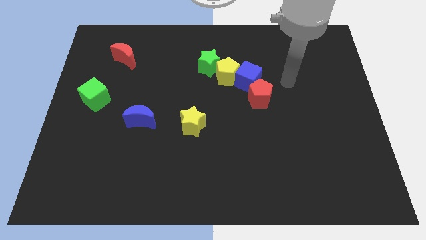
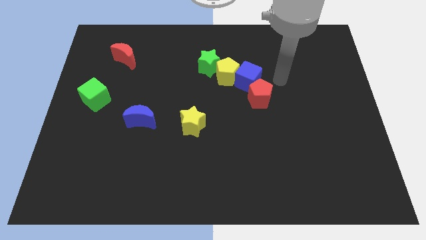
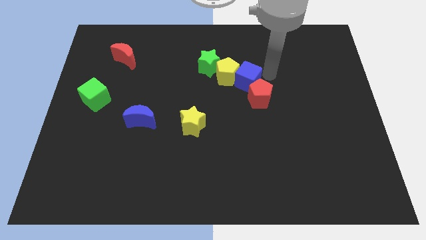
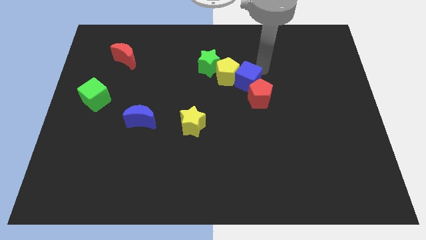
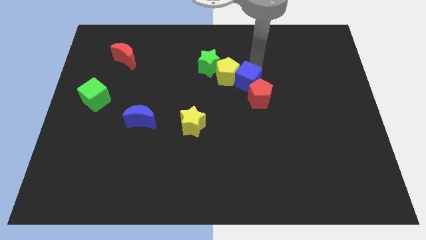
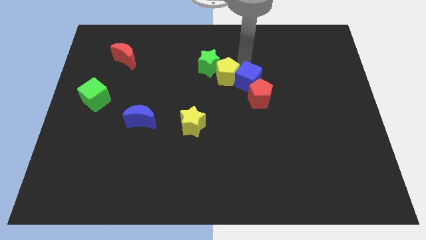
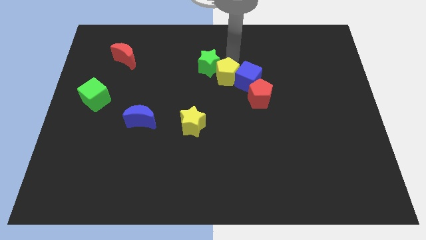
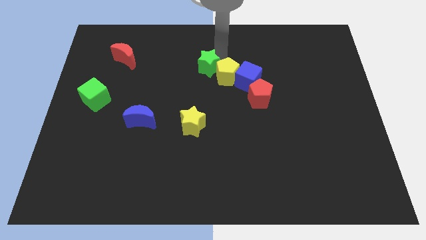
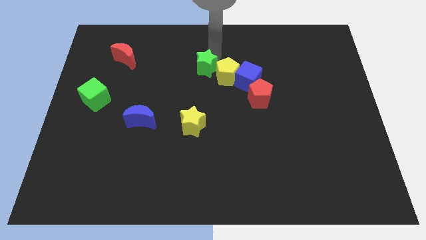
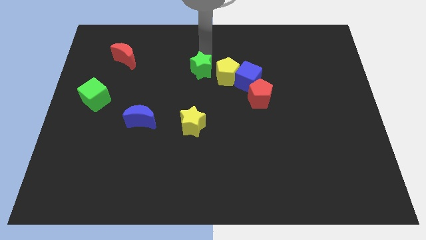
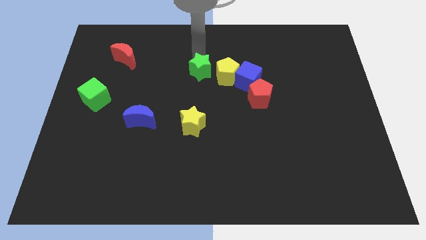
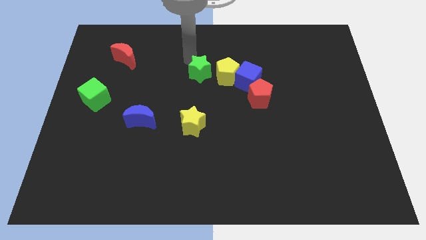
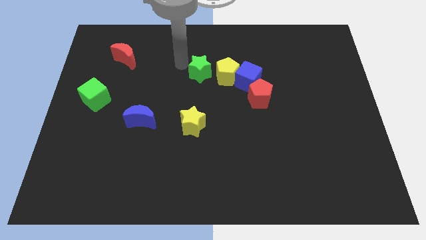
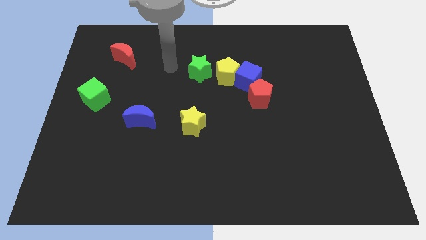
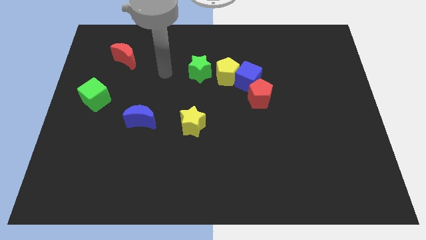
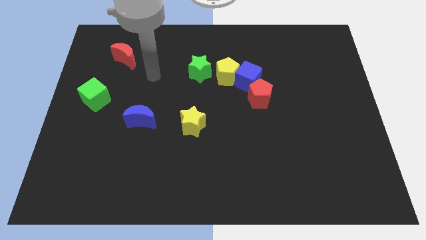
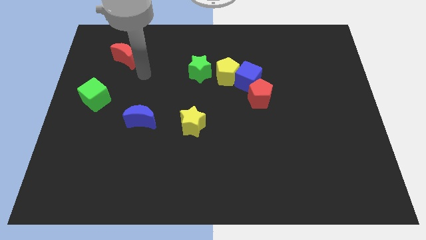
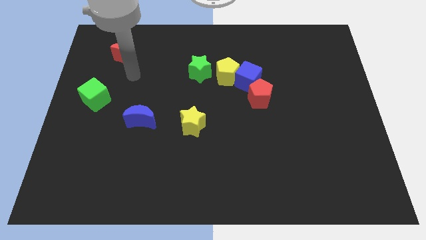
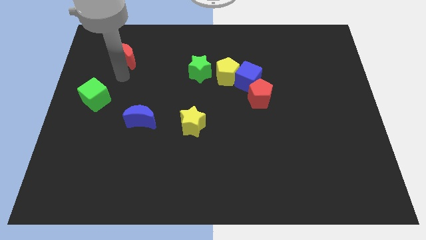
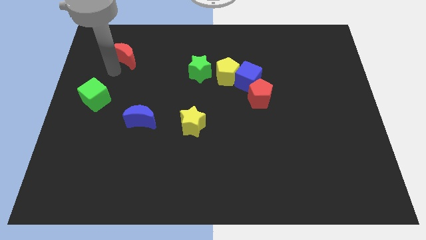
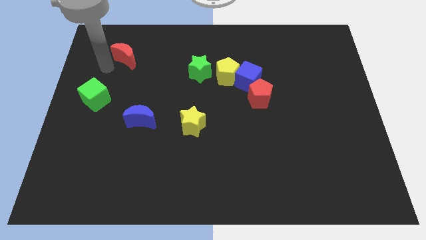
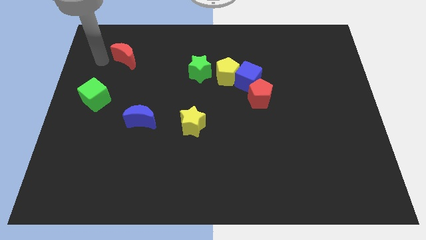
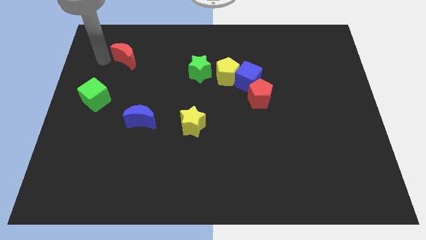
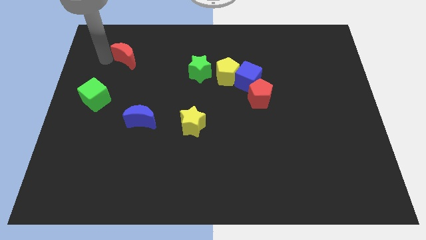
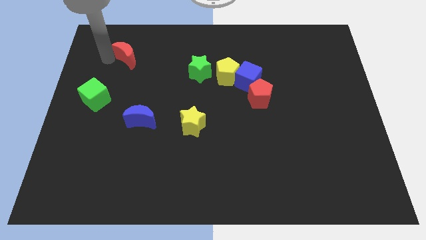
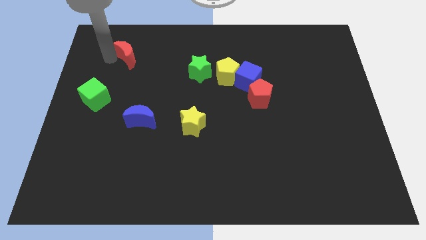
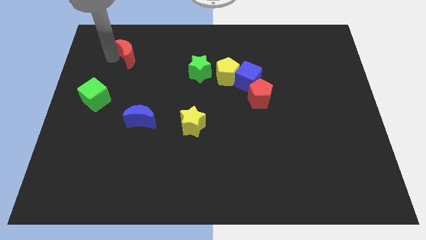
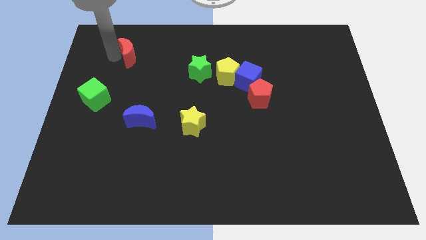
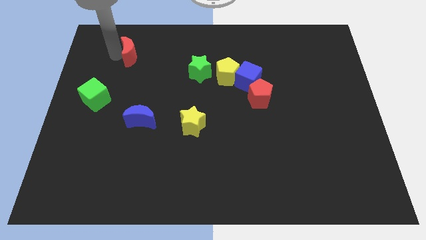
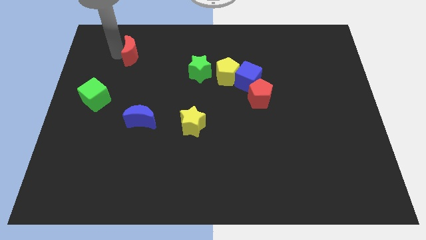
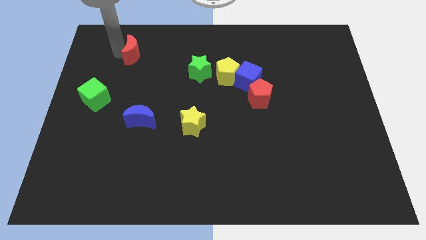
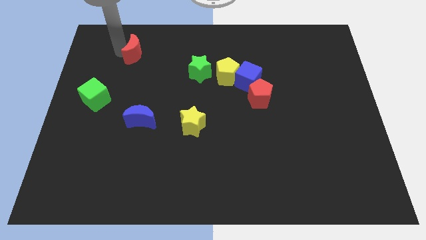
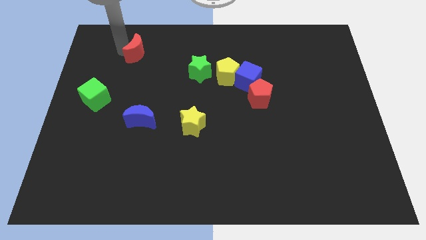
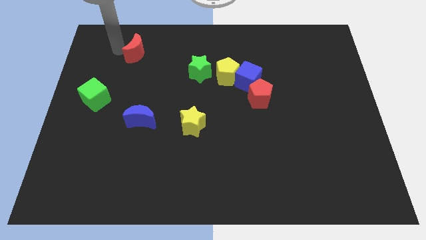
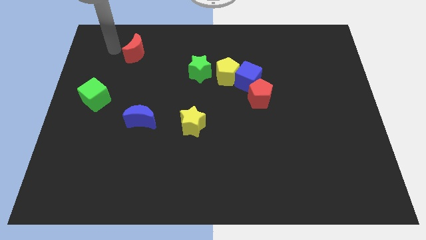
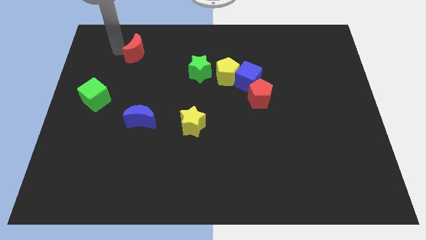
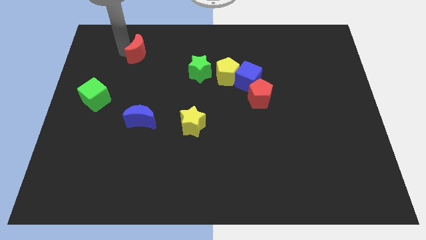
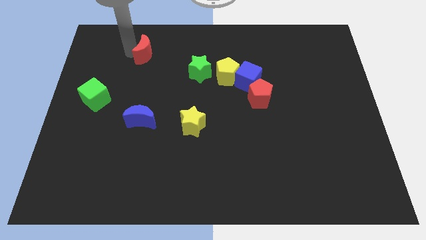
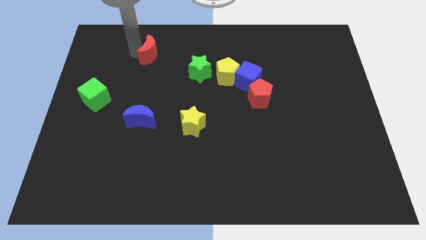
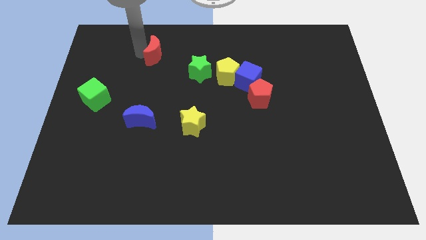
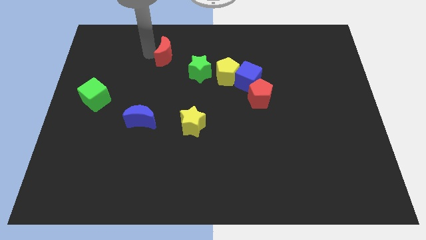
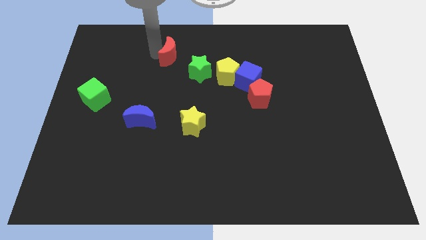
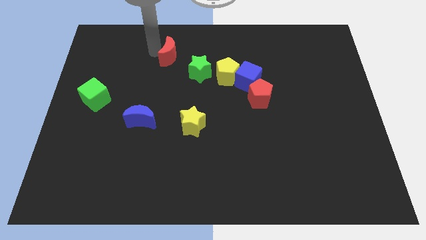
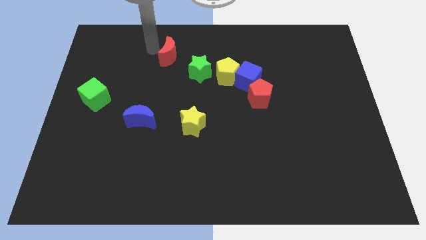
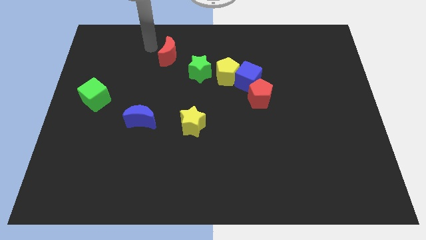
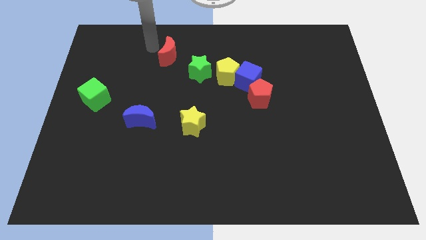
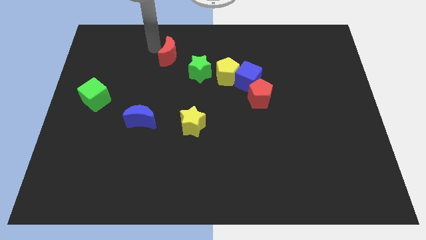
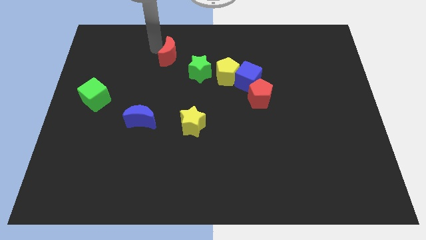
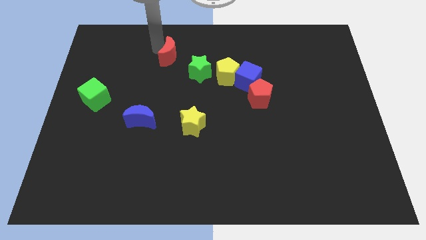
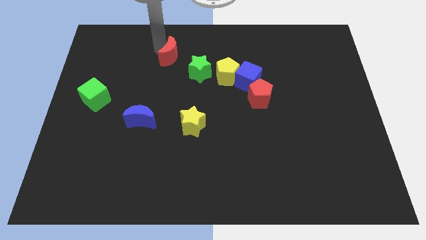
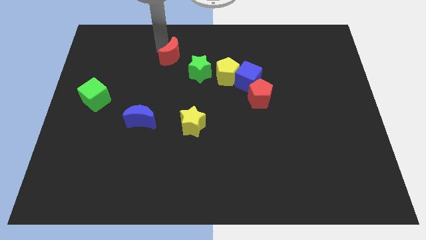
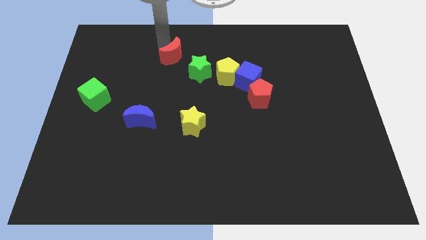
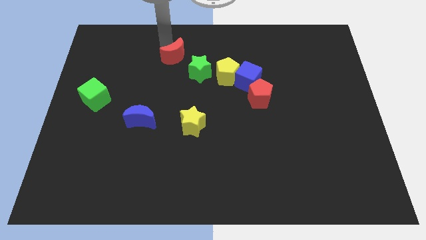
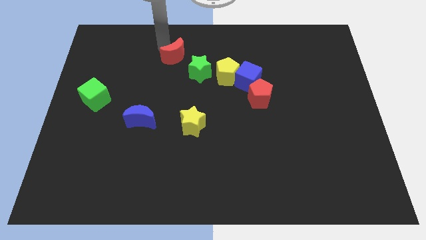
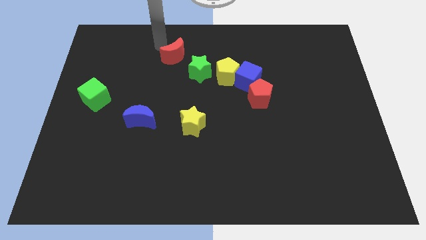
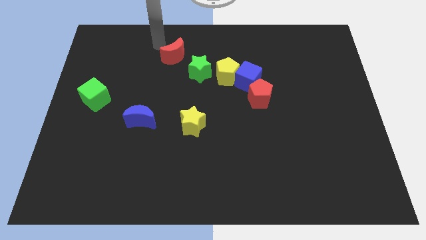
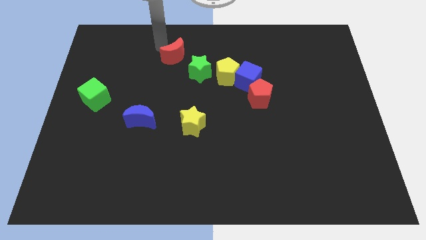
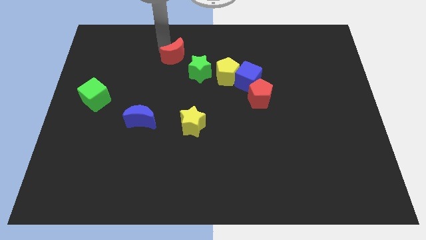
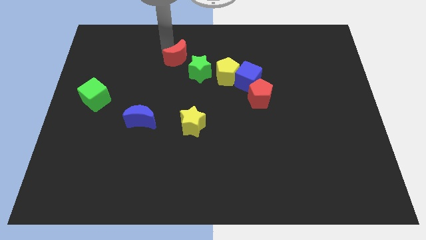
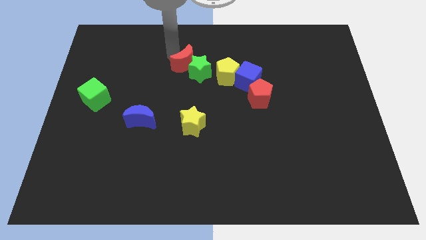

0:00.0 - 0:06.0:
slide the red moon next to the green star

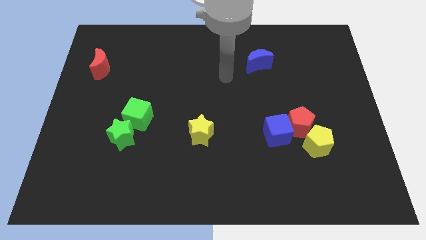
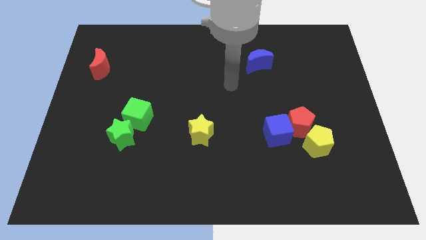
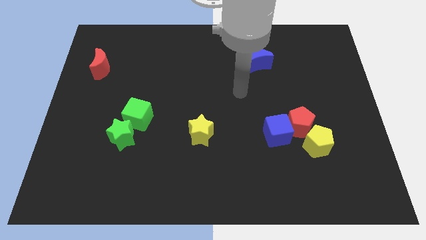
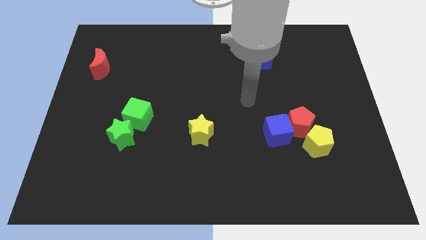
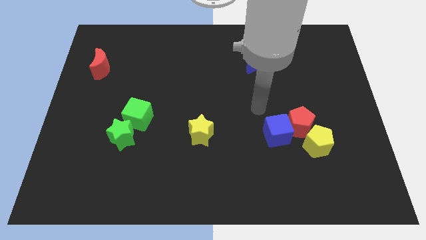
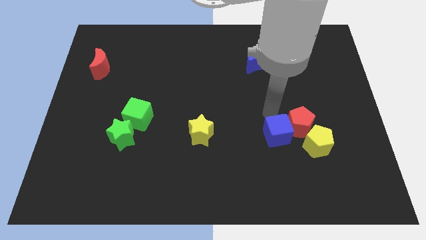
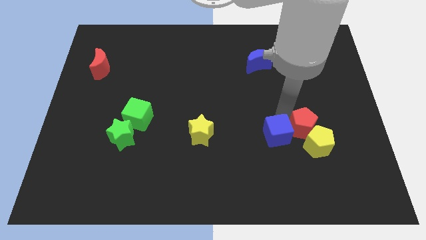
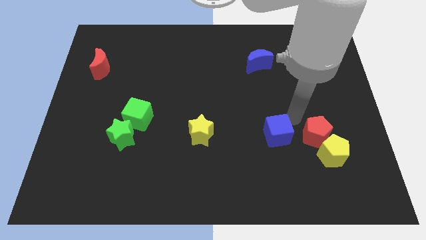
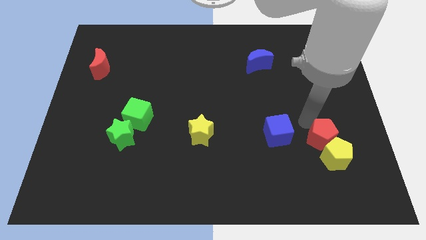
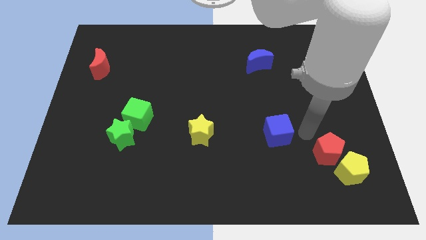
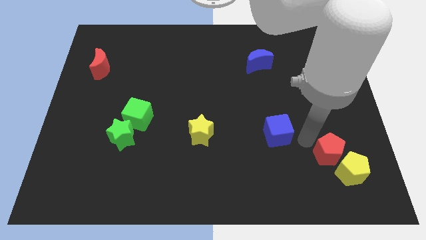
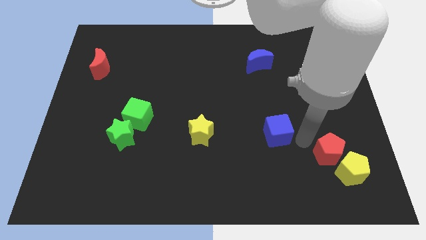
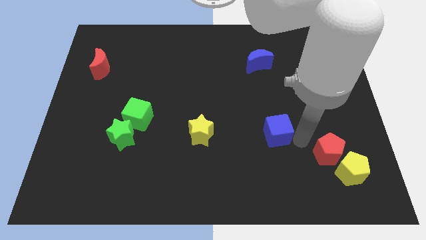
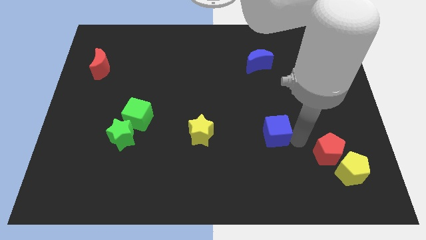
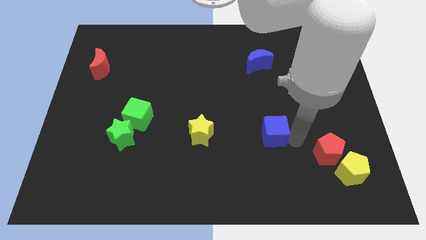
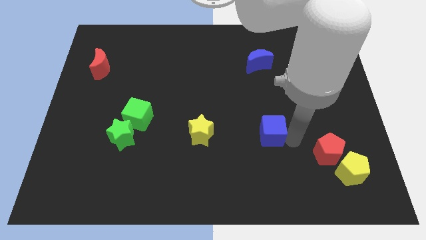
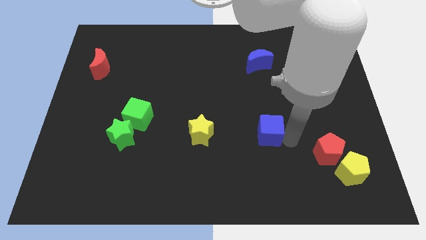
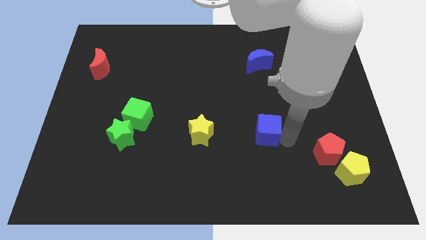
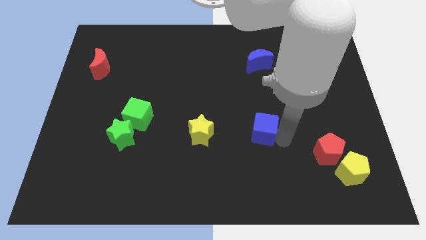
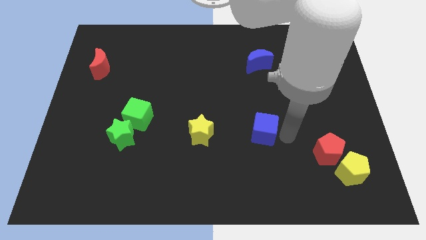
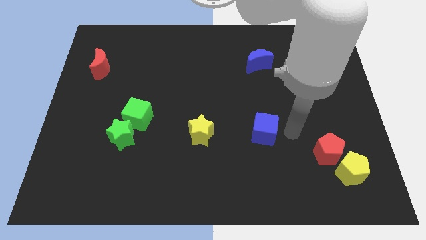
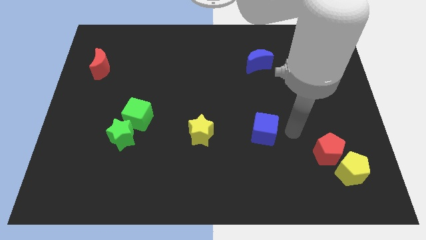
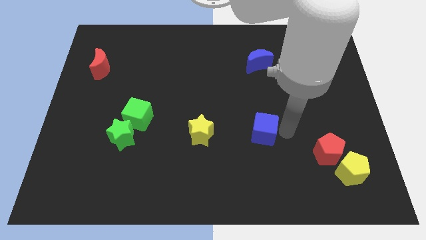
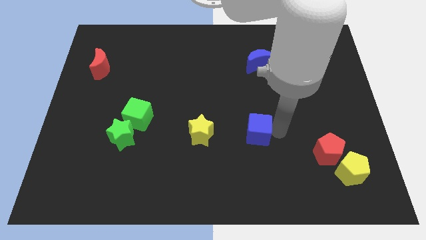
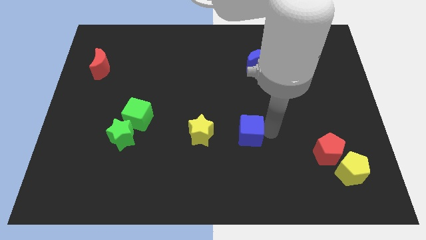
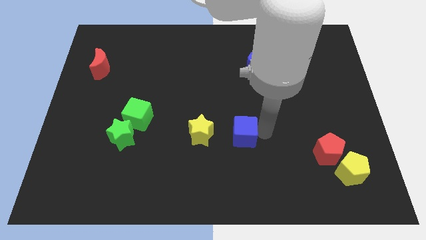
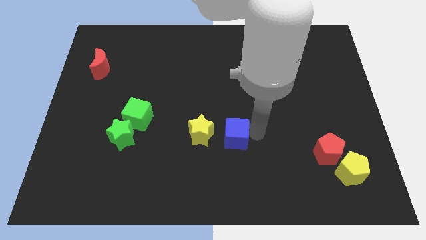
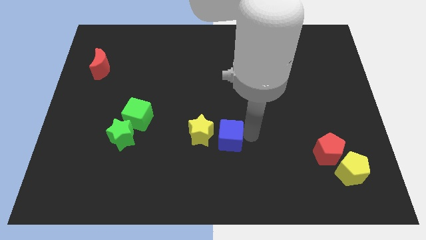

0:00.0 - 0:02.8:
put the blue cube next to the yellow star
